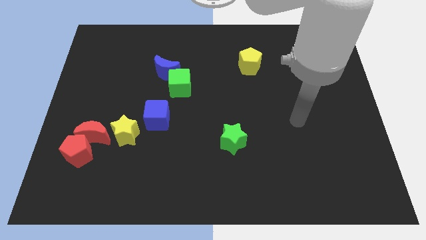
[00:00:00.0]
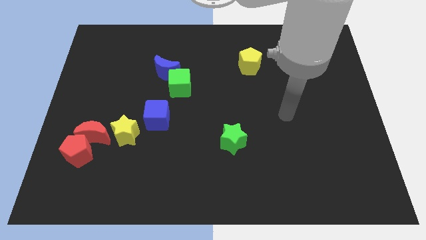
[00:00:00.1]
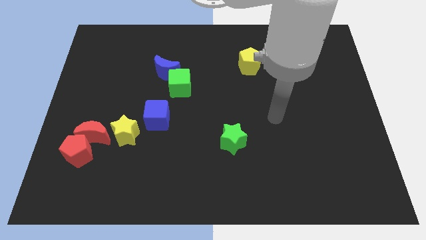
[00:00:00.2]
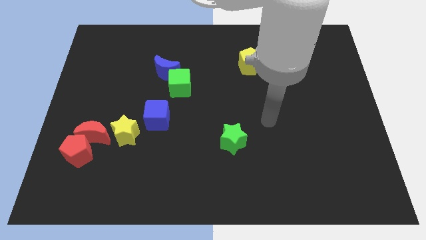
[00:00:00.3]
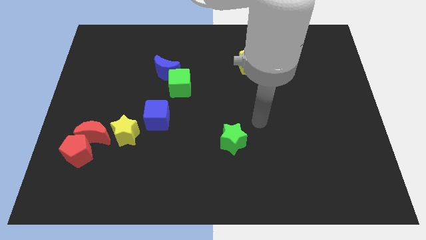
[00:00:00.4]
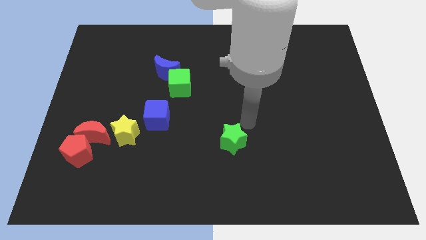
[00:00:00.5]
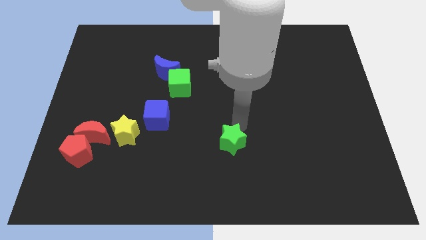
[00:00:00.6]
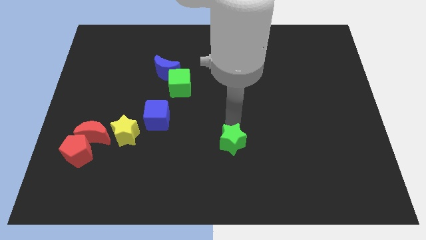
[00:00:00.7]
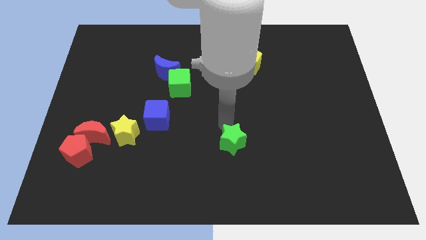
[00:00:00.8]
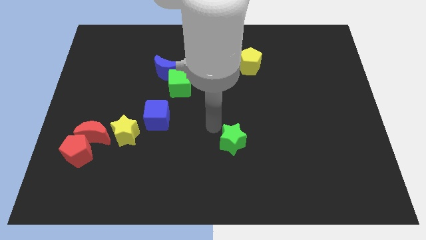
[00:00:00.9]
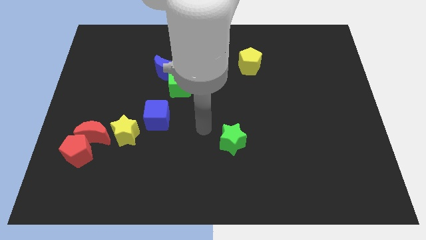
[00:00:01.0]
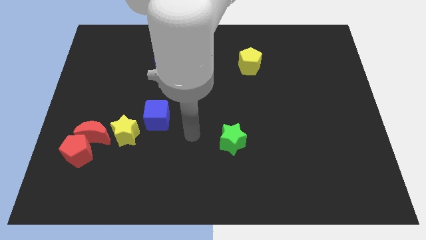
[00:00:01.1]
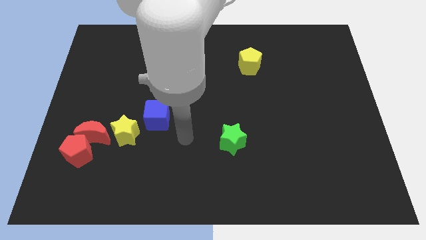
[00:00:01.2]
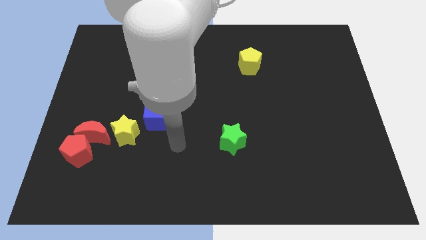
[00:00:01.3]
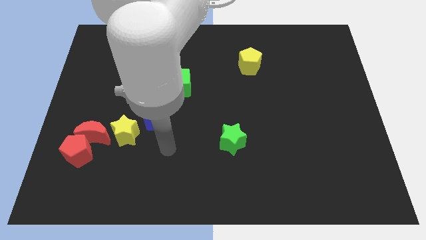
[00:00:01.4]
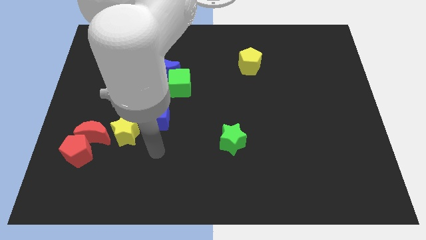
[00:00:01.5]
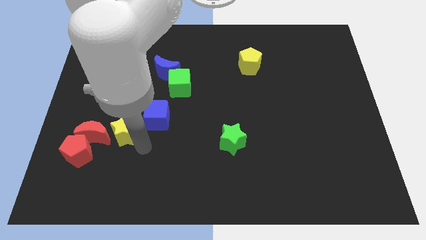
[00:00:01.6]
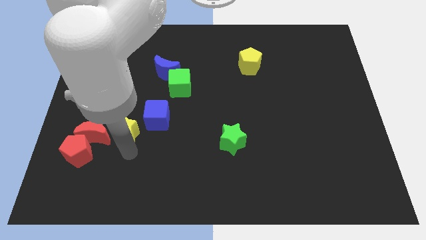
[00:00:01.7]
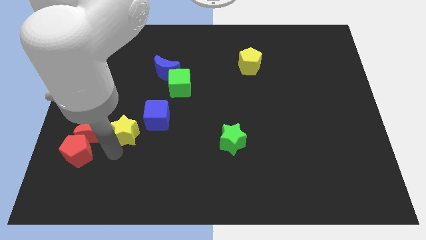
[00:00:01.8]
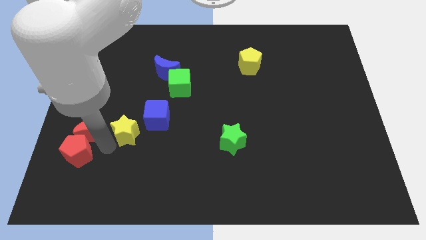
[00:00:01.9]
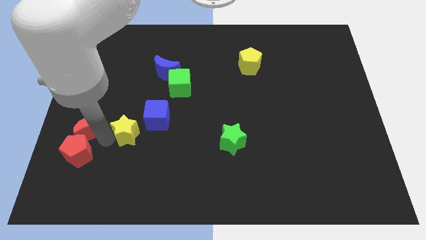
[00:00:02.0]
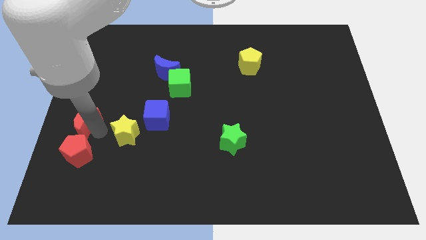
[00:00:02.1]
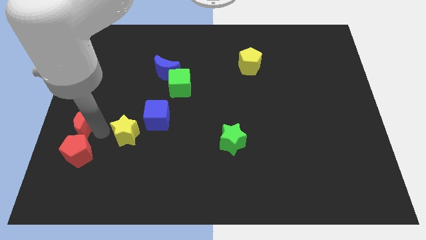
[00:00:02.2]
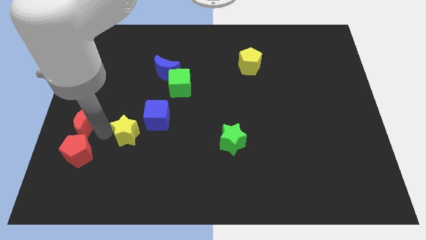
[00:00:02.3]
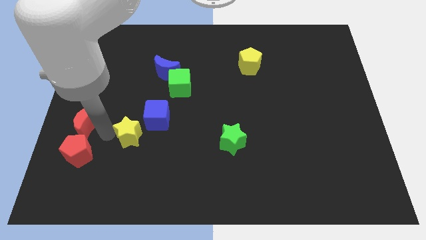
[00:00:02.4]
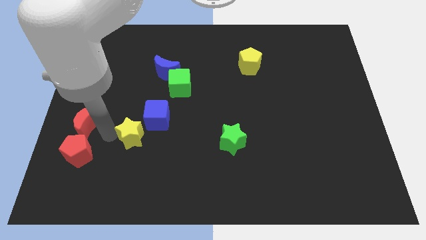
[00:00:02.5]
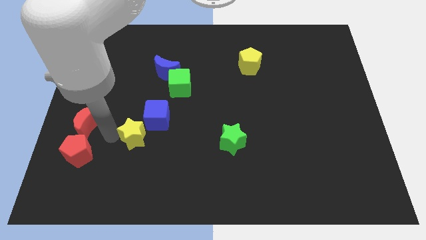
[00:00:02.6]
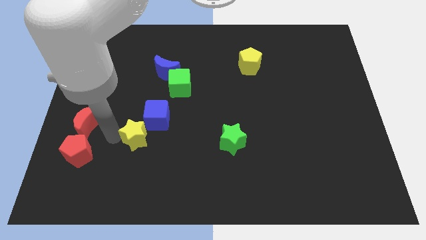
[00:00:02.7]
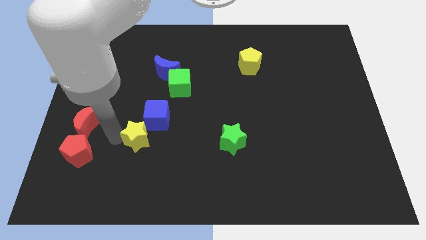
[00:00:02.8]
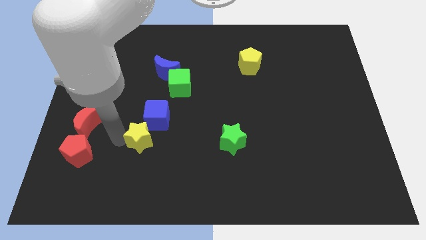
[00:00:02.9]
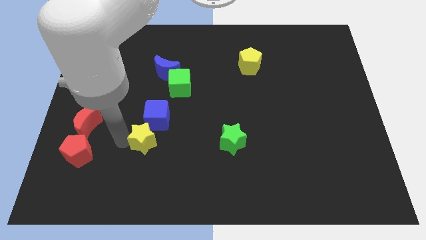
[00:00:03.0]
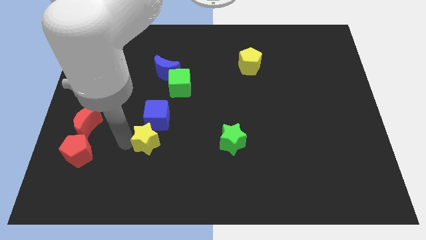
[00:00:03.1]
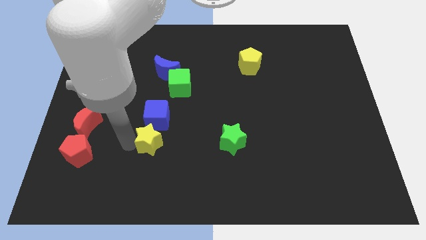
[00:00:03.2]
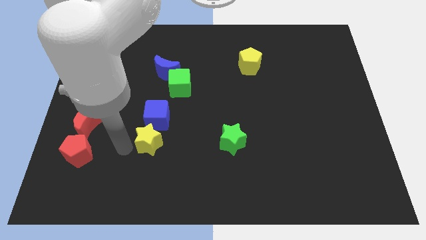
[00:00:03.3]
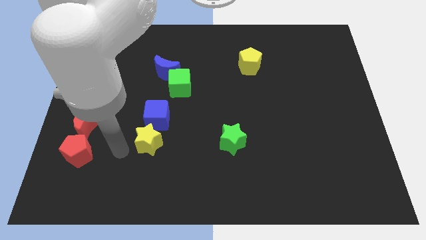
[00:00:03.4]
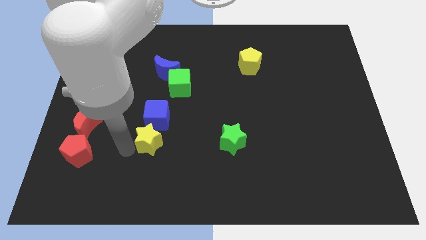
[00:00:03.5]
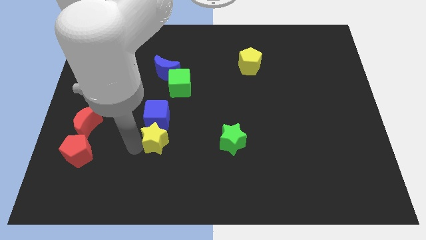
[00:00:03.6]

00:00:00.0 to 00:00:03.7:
slide the yellow star to the right a little bit

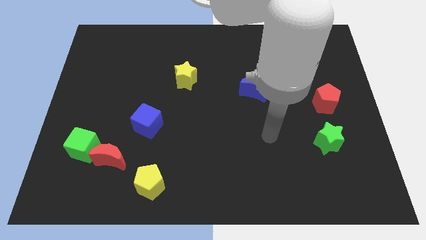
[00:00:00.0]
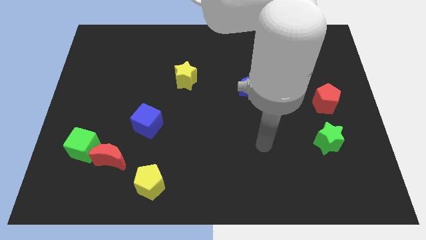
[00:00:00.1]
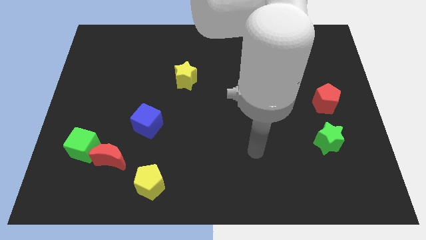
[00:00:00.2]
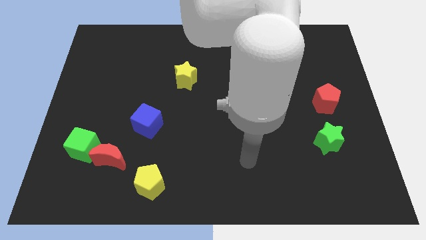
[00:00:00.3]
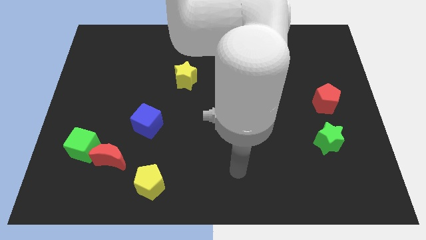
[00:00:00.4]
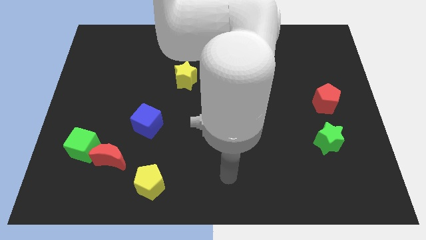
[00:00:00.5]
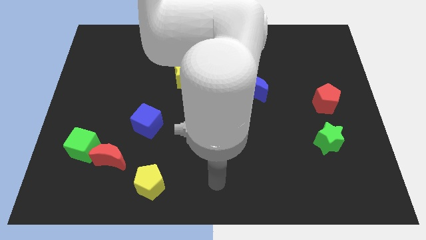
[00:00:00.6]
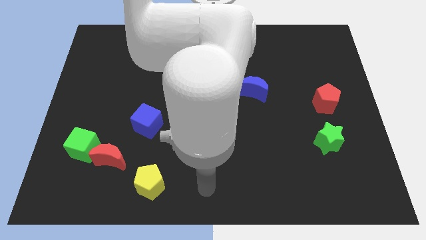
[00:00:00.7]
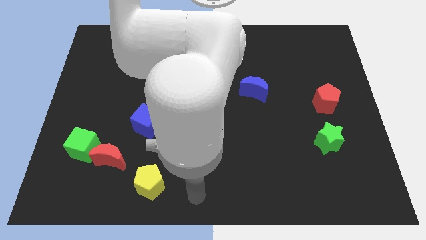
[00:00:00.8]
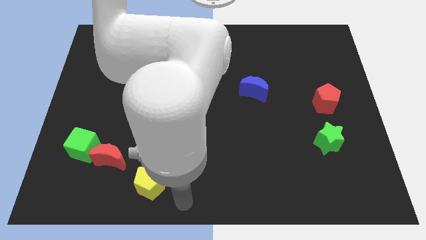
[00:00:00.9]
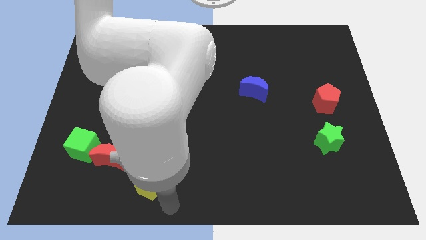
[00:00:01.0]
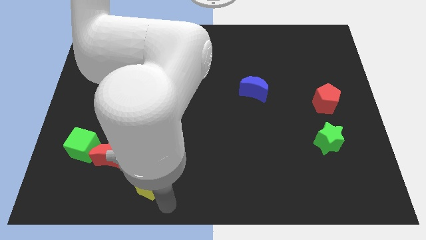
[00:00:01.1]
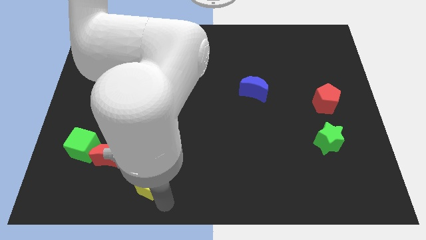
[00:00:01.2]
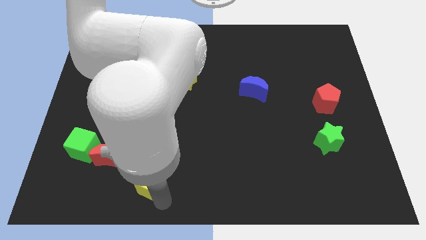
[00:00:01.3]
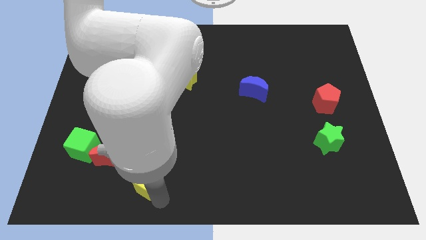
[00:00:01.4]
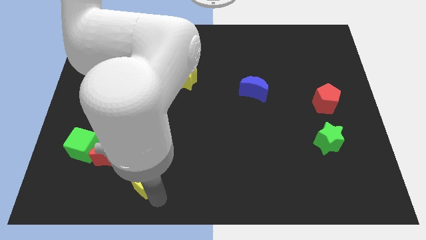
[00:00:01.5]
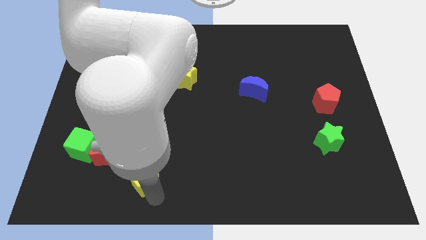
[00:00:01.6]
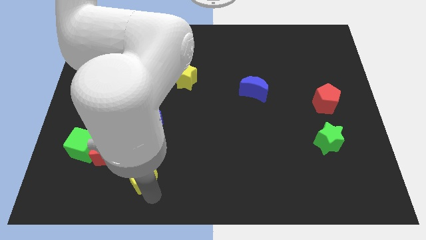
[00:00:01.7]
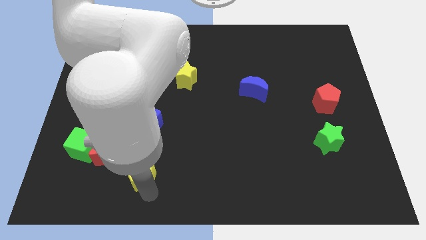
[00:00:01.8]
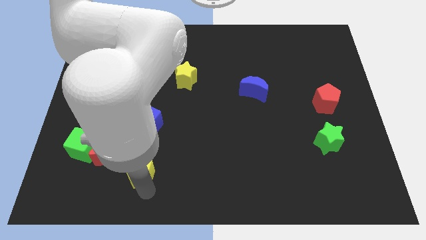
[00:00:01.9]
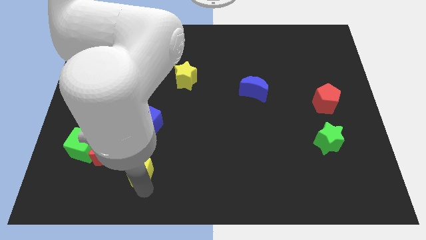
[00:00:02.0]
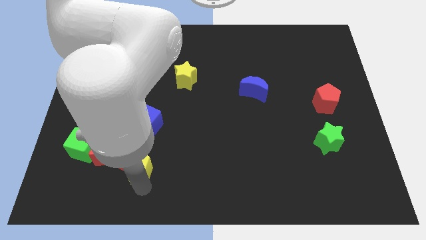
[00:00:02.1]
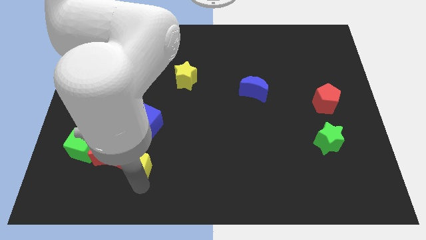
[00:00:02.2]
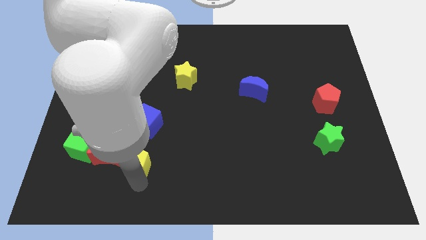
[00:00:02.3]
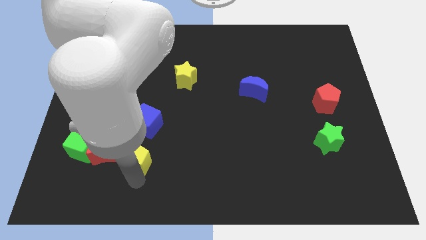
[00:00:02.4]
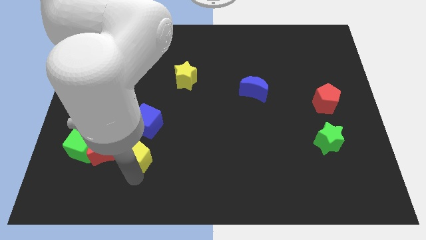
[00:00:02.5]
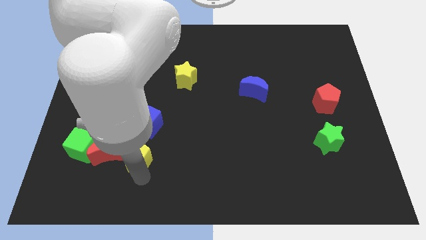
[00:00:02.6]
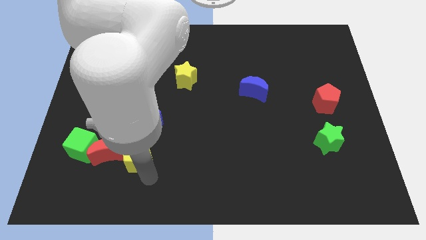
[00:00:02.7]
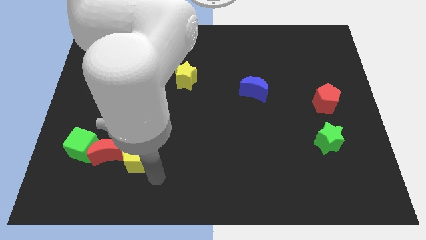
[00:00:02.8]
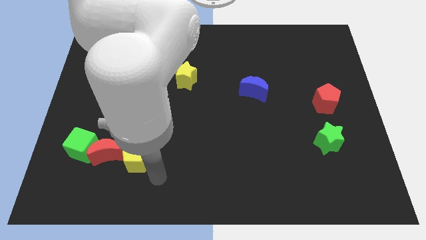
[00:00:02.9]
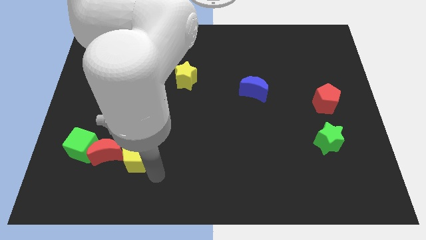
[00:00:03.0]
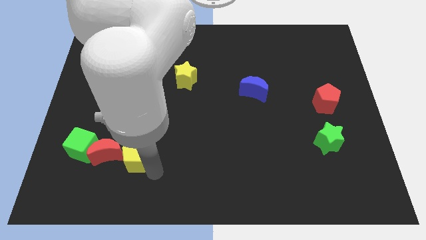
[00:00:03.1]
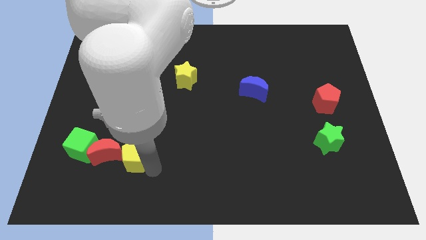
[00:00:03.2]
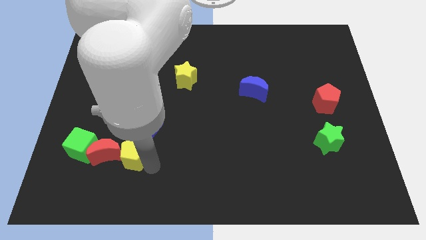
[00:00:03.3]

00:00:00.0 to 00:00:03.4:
push the yellow pentagon somewhat upwards and to the left diagonally

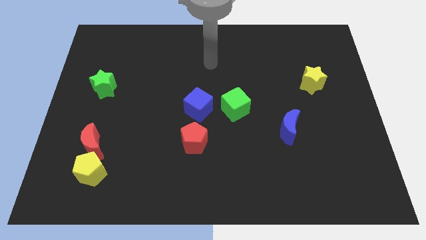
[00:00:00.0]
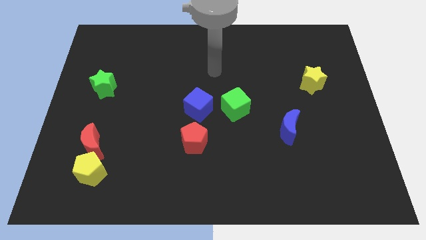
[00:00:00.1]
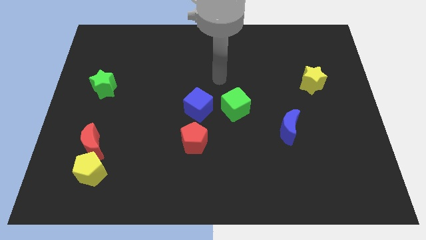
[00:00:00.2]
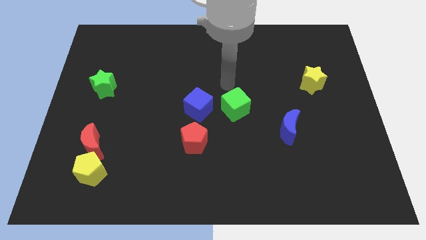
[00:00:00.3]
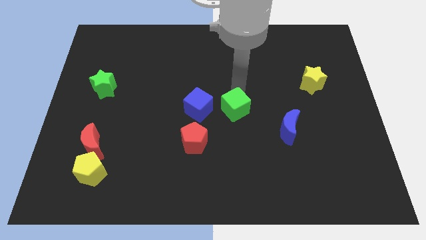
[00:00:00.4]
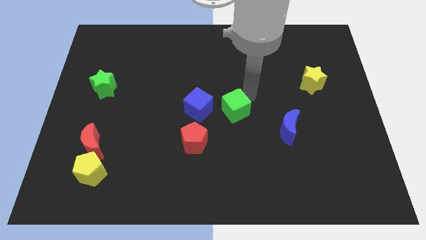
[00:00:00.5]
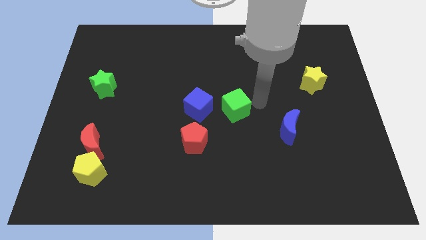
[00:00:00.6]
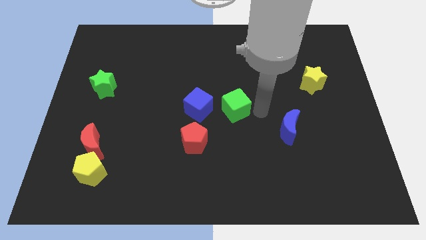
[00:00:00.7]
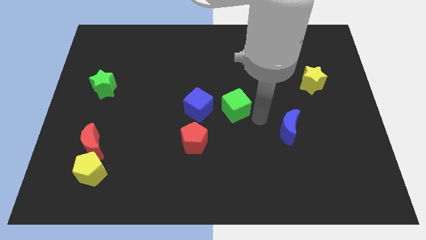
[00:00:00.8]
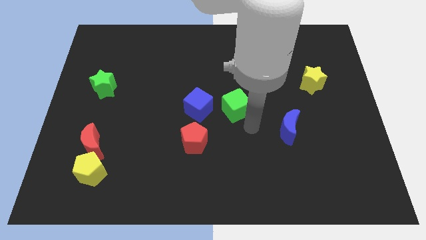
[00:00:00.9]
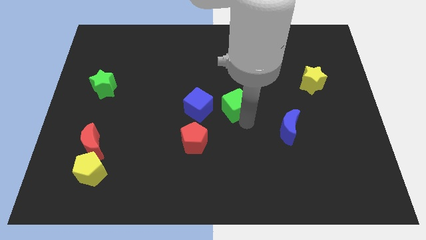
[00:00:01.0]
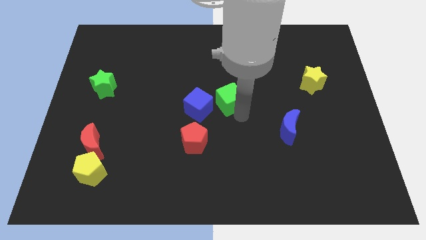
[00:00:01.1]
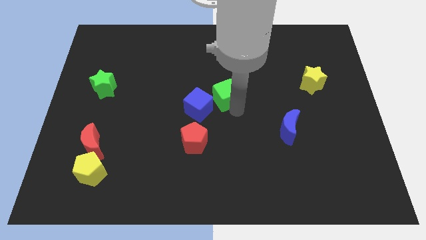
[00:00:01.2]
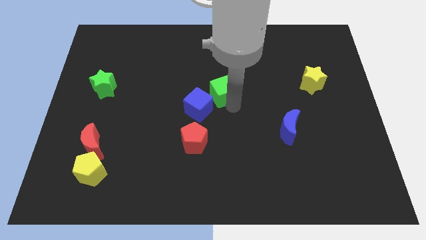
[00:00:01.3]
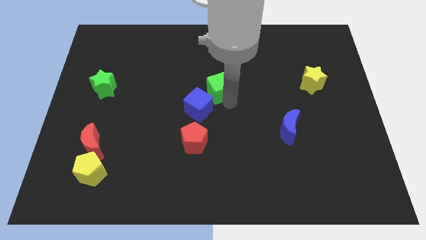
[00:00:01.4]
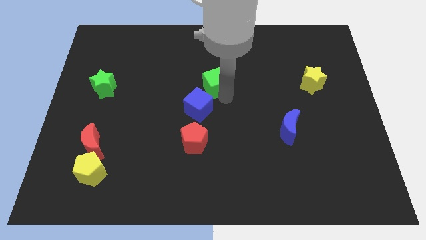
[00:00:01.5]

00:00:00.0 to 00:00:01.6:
push the green cube slightly diagonally upwards and left
